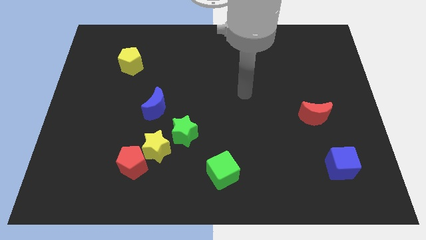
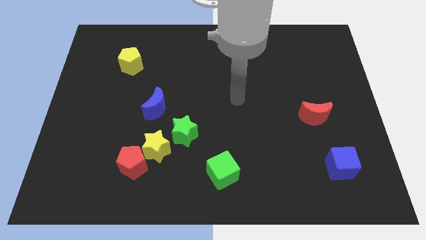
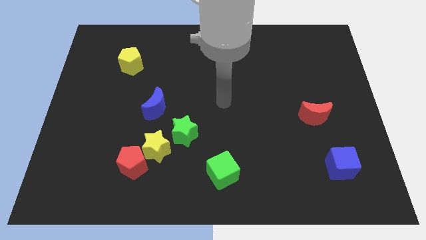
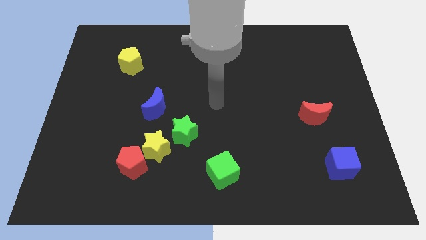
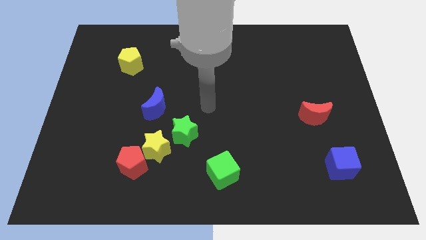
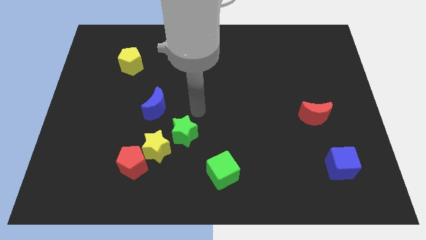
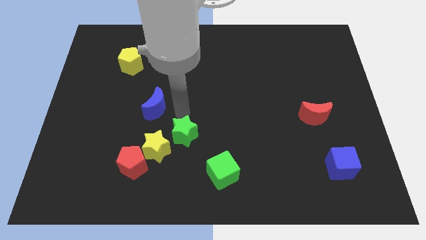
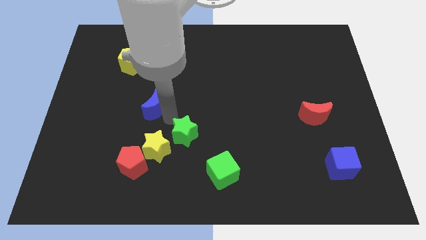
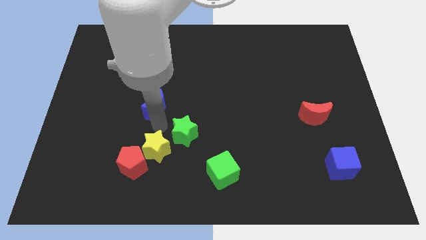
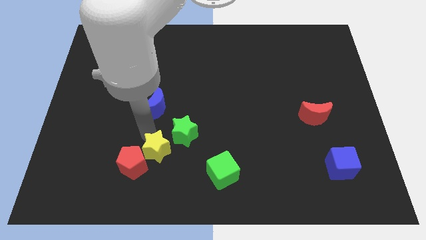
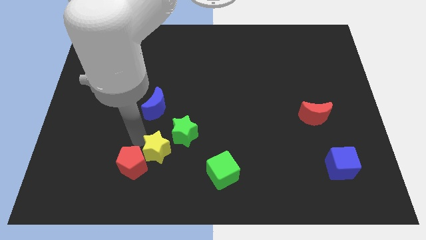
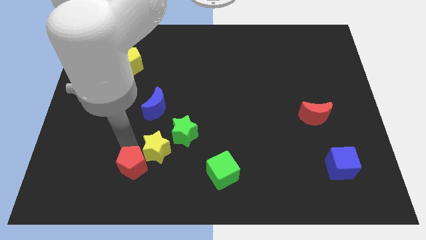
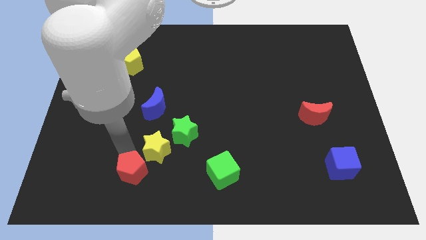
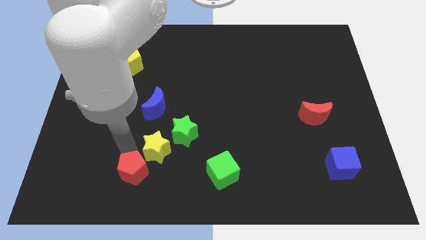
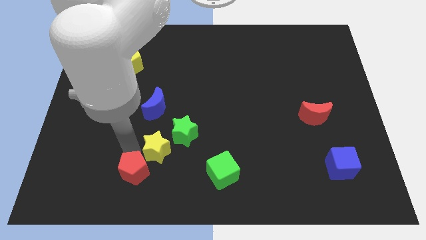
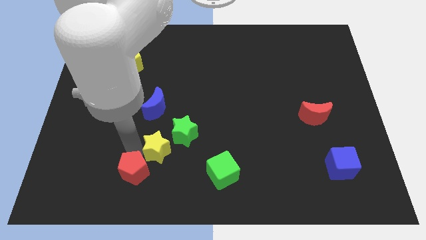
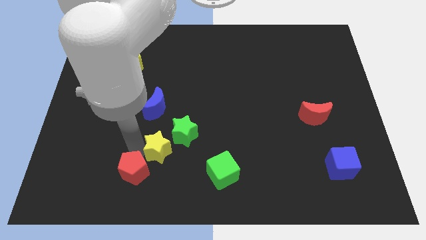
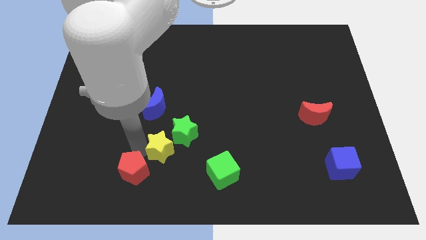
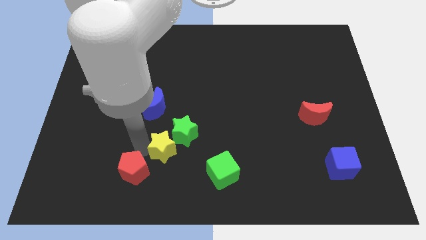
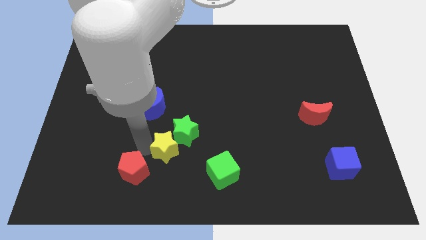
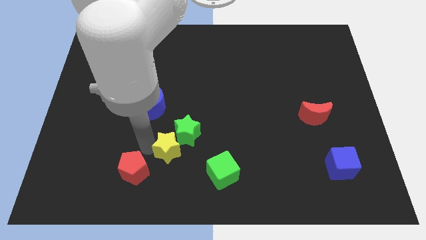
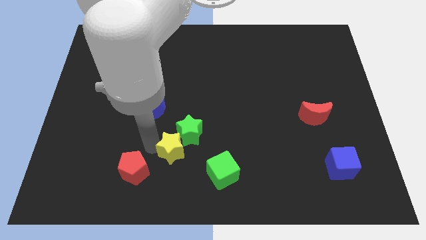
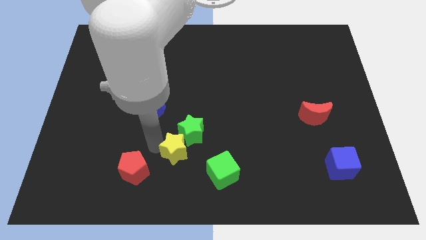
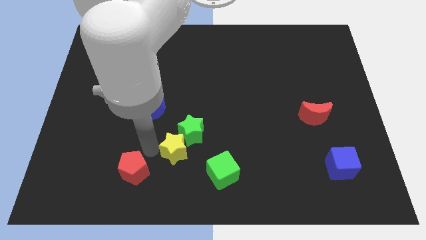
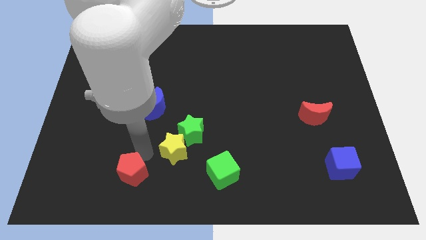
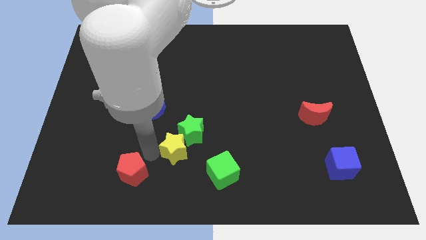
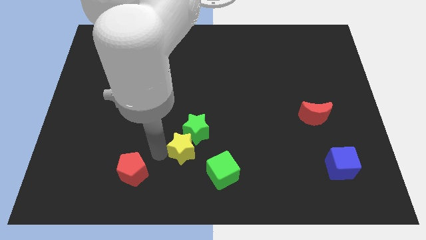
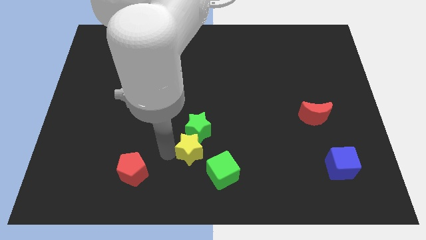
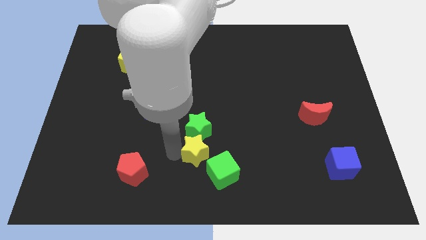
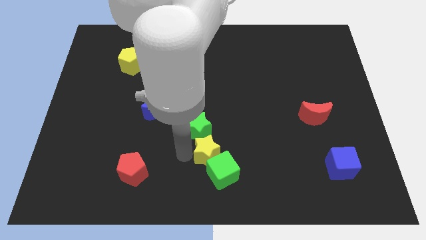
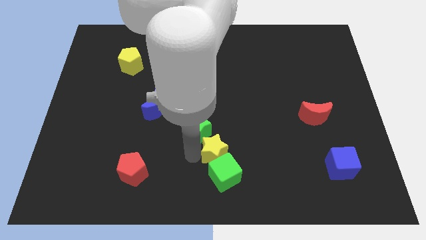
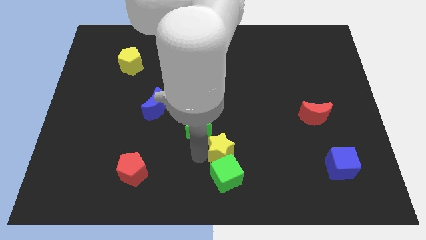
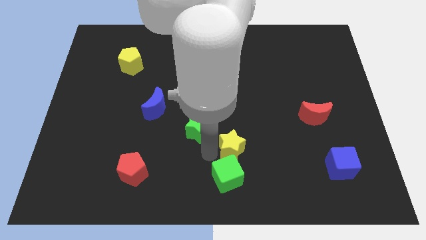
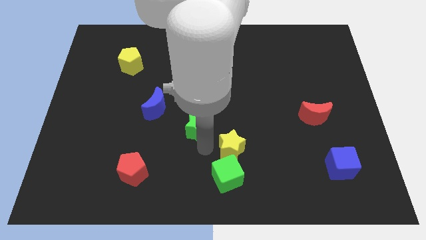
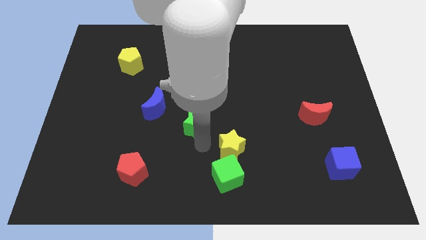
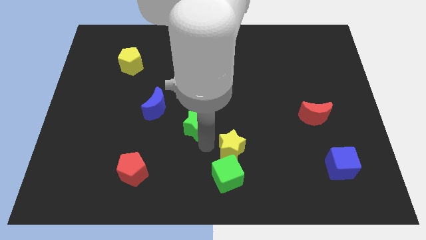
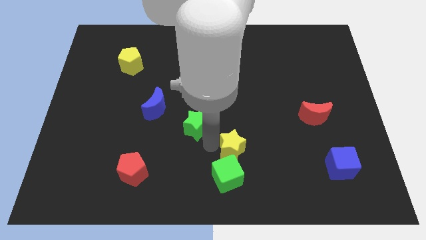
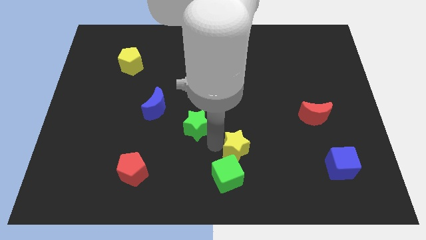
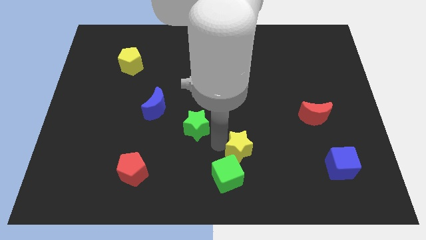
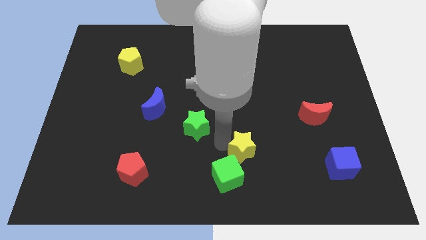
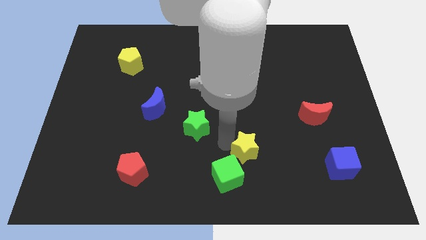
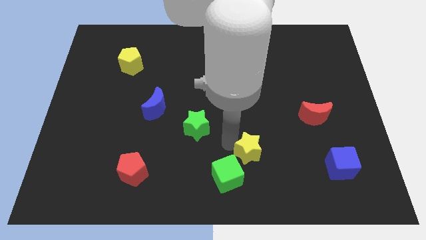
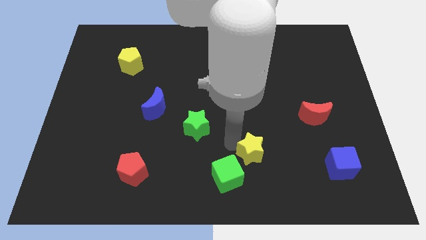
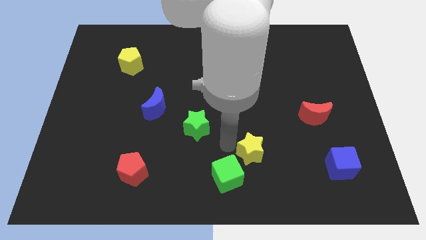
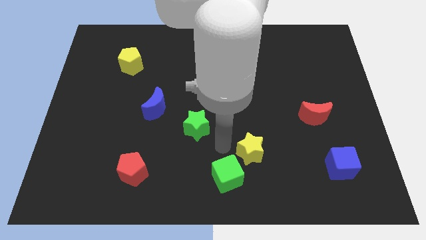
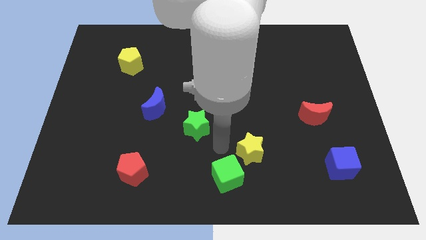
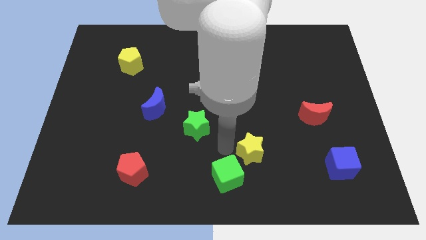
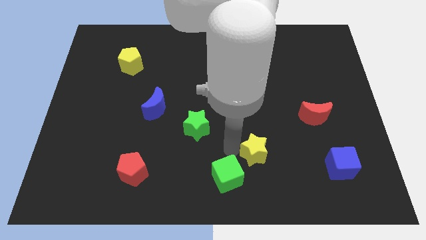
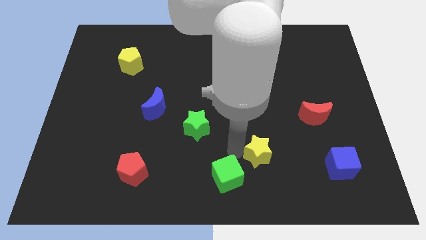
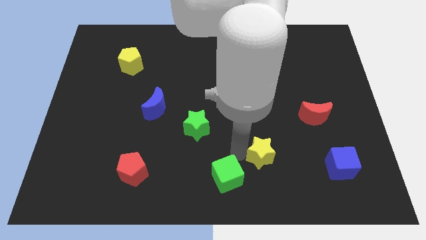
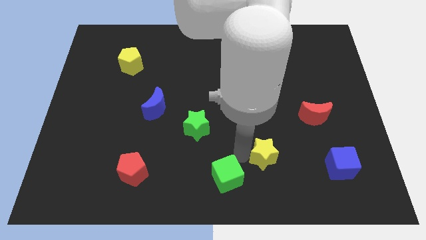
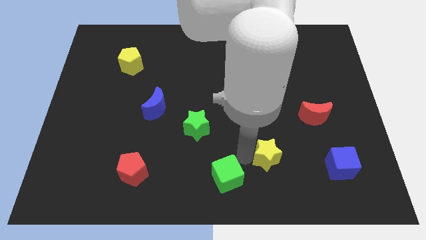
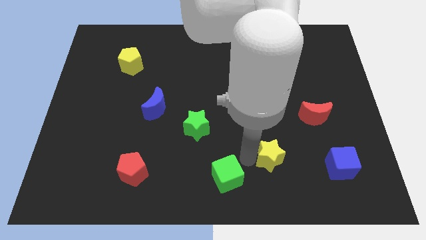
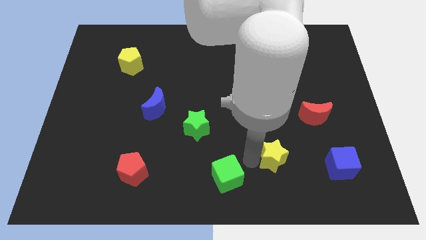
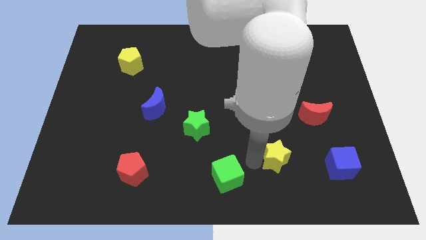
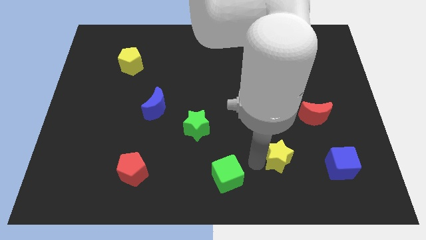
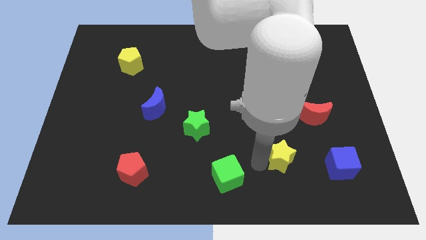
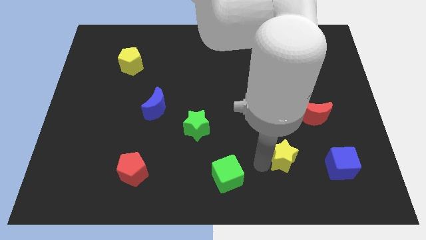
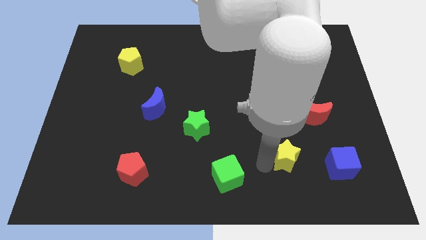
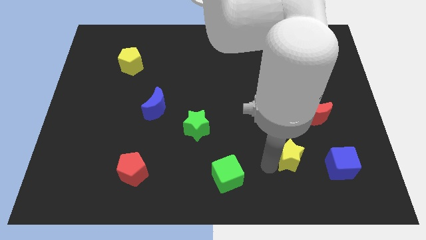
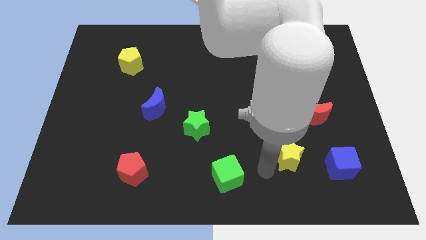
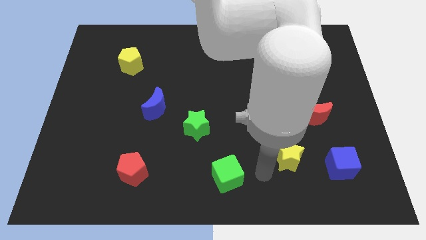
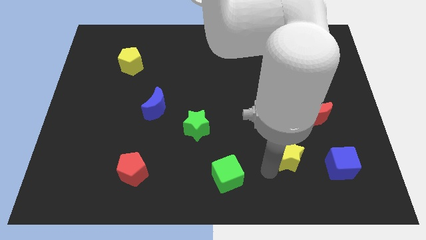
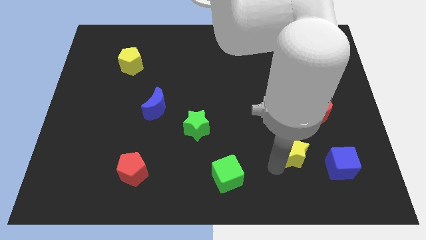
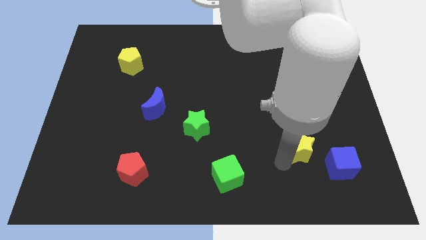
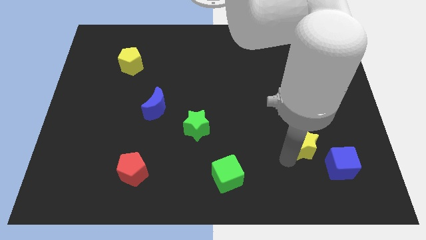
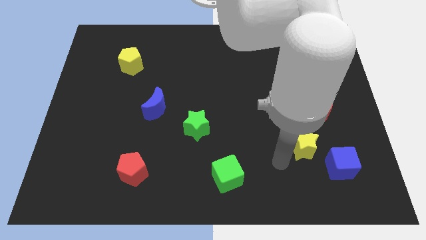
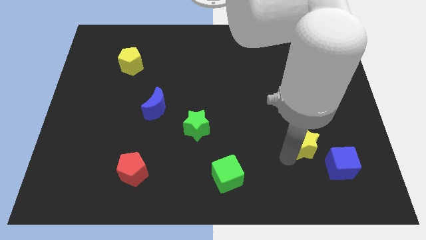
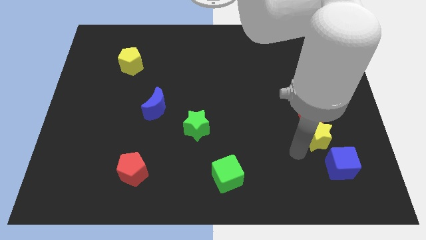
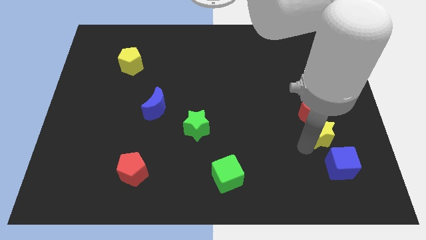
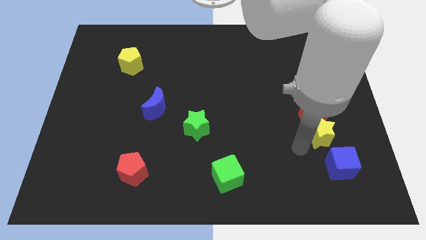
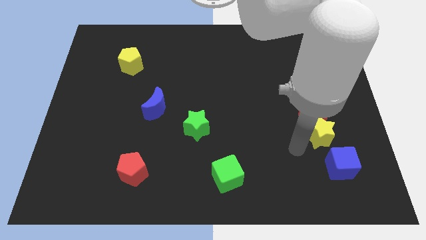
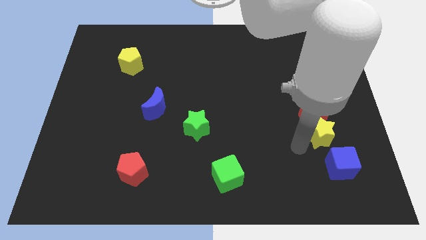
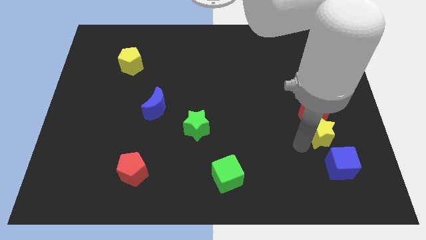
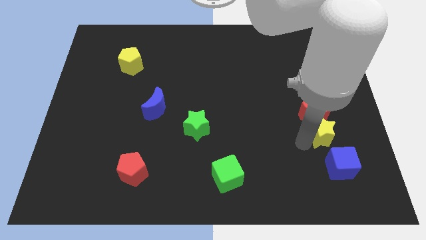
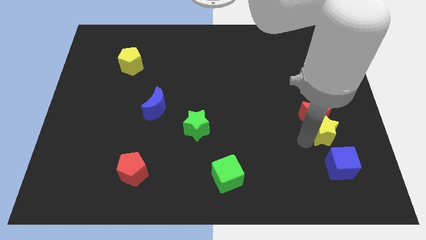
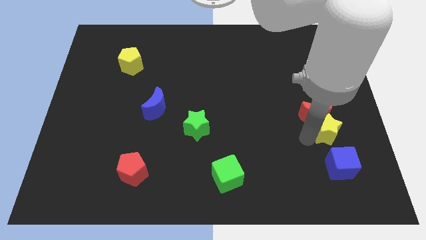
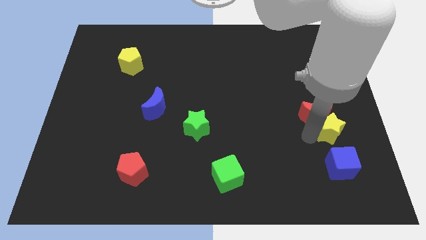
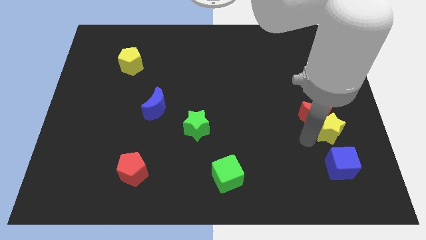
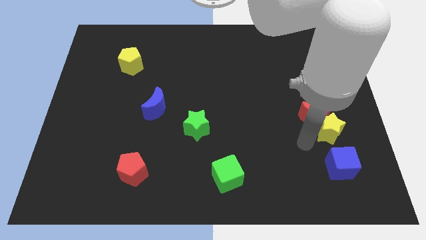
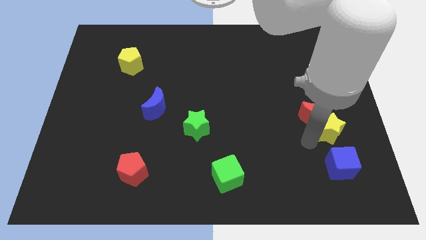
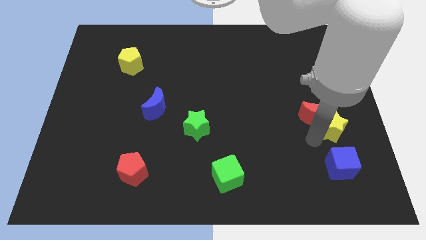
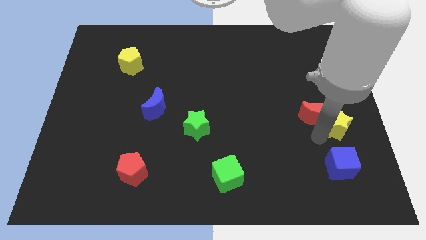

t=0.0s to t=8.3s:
push the yellow star to the right side of the board
